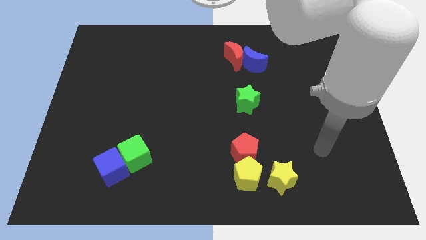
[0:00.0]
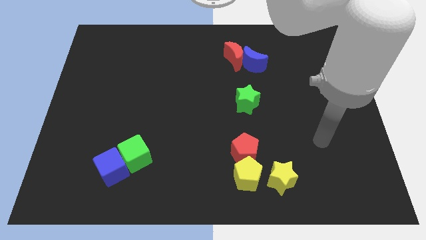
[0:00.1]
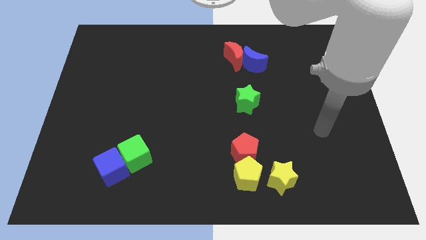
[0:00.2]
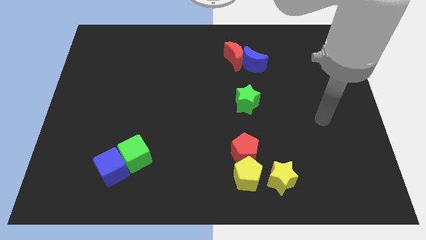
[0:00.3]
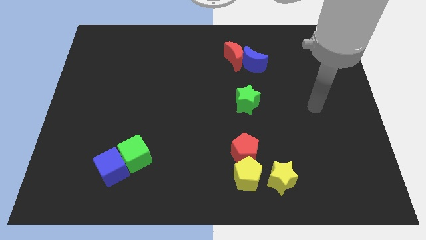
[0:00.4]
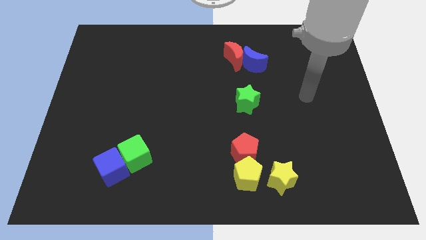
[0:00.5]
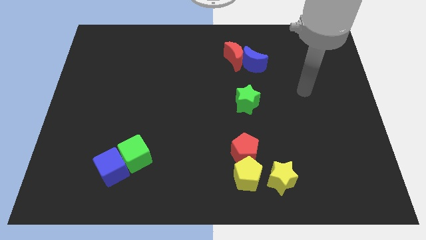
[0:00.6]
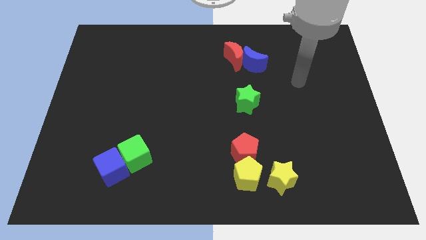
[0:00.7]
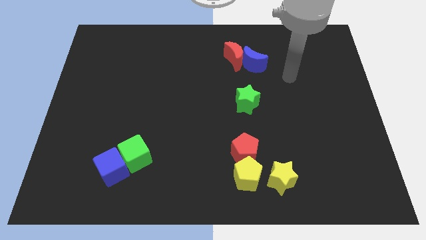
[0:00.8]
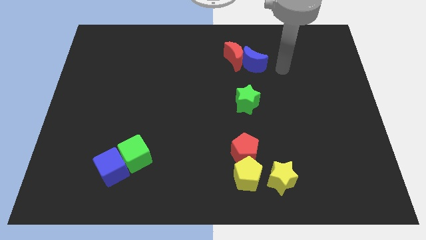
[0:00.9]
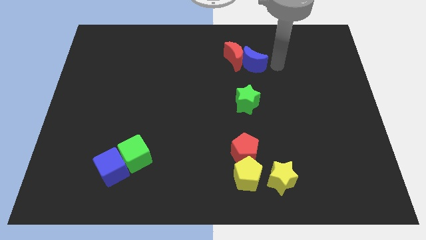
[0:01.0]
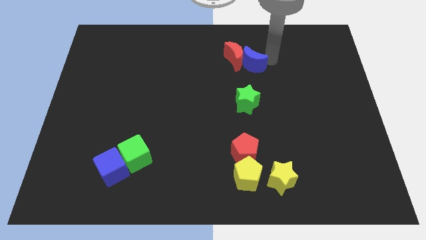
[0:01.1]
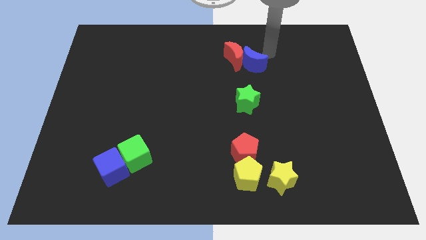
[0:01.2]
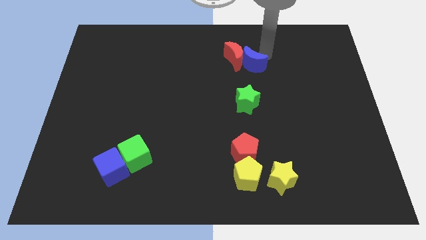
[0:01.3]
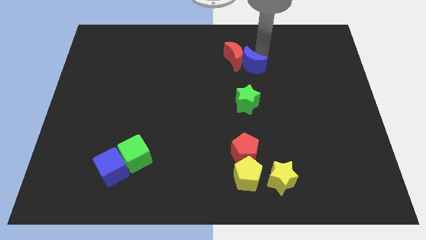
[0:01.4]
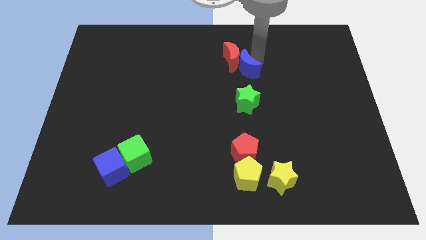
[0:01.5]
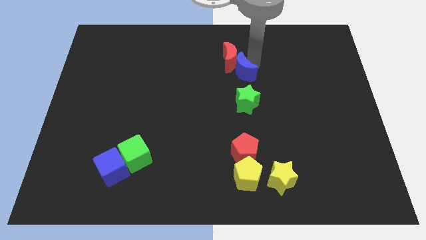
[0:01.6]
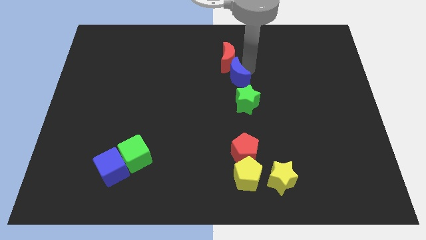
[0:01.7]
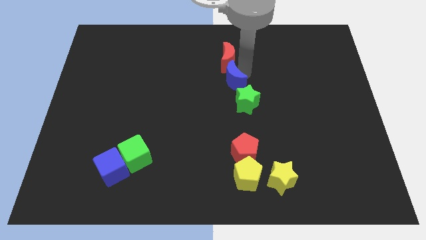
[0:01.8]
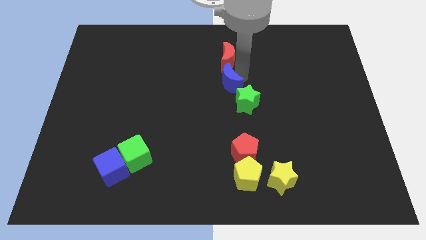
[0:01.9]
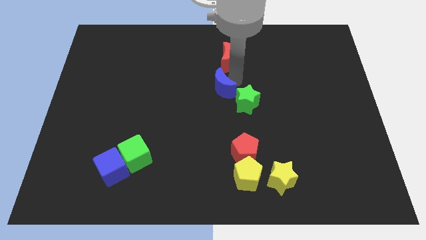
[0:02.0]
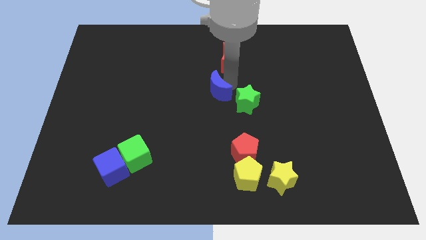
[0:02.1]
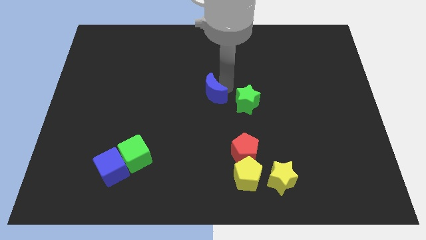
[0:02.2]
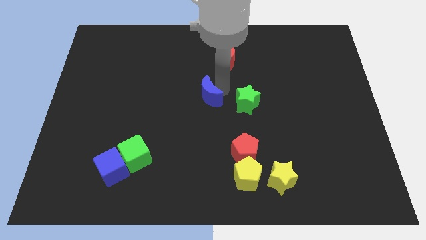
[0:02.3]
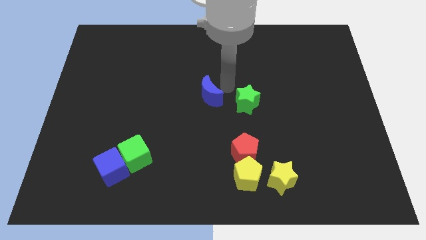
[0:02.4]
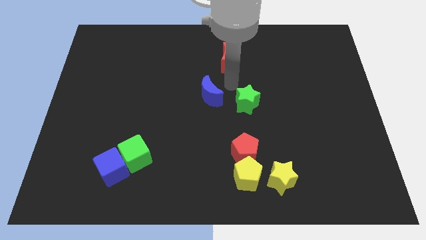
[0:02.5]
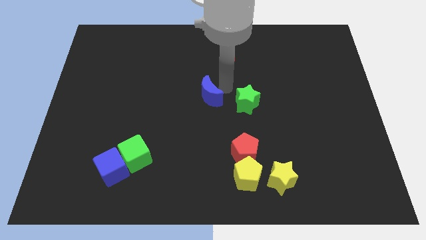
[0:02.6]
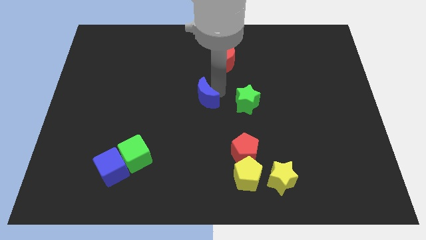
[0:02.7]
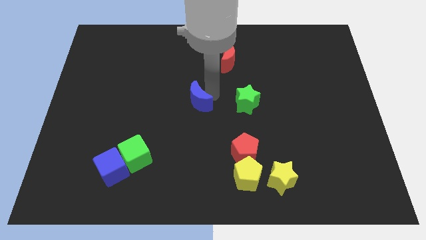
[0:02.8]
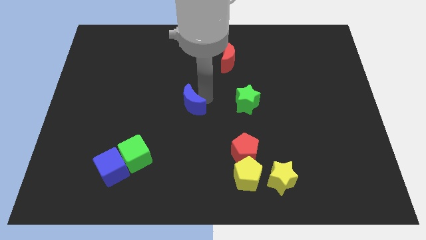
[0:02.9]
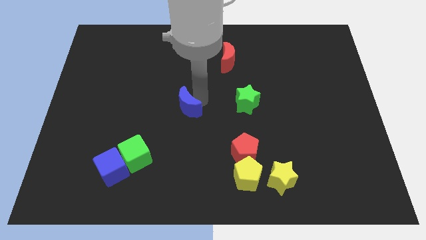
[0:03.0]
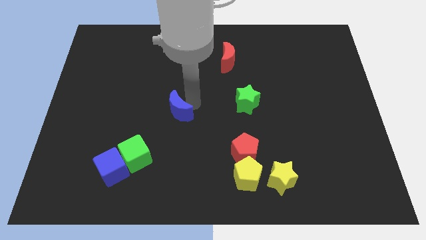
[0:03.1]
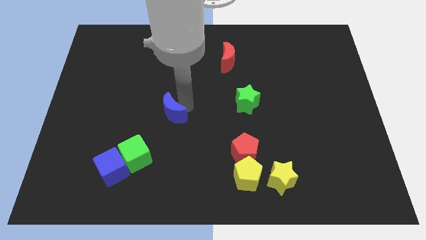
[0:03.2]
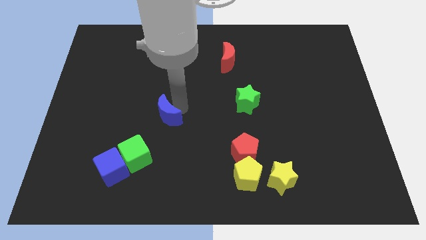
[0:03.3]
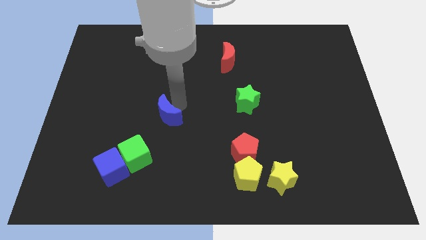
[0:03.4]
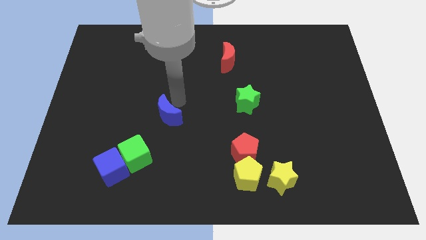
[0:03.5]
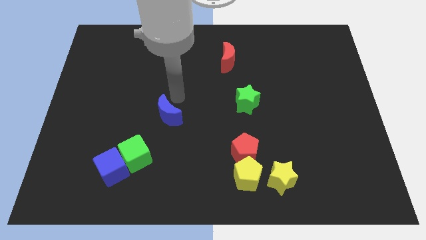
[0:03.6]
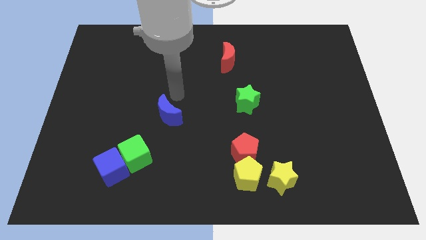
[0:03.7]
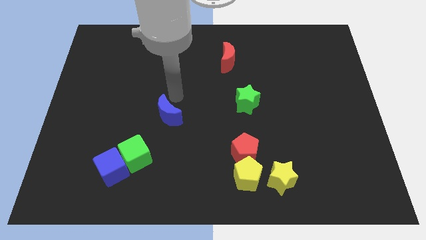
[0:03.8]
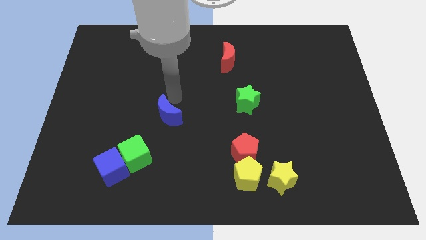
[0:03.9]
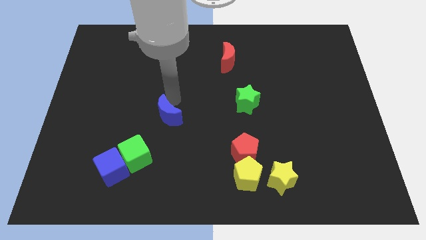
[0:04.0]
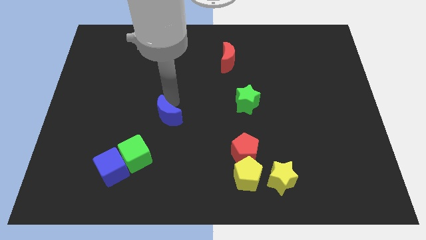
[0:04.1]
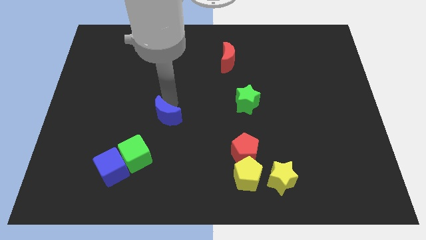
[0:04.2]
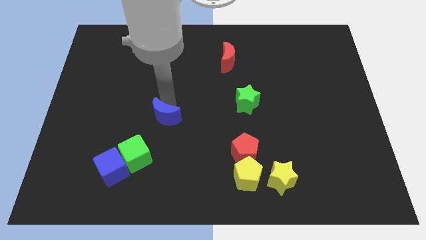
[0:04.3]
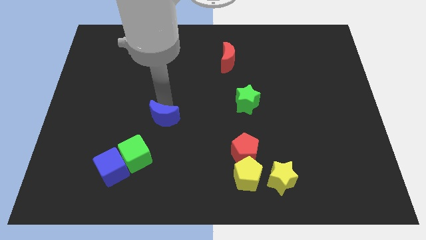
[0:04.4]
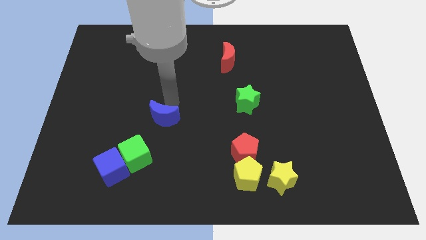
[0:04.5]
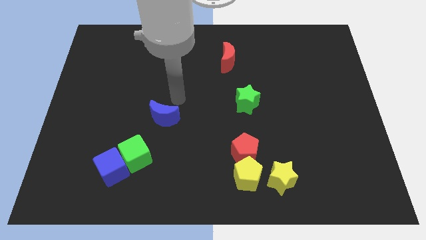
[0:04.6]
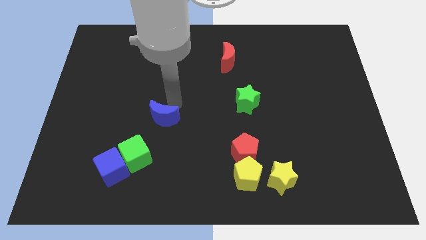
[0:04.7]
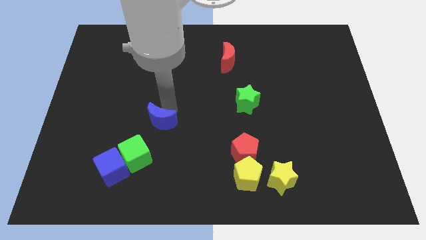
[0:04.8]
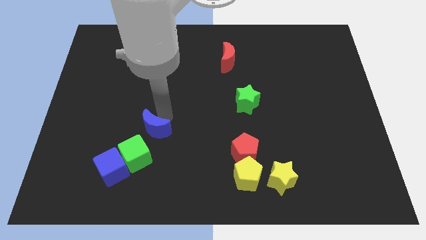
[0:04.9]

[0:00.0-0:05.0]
push the blue moon to the top right side of the blue cube

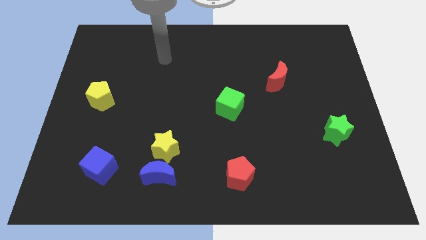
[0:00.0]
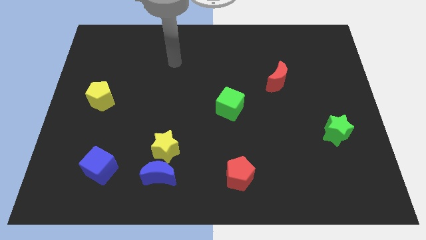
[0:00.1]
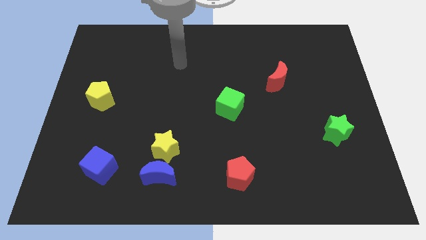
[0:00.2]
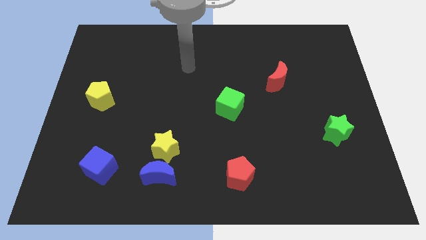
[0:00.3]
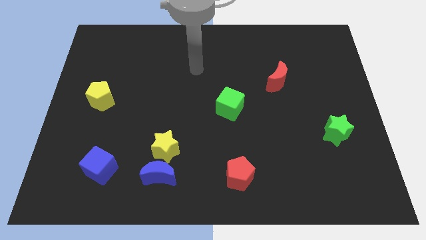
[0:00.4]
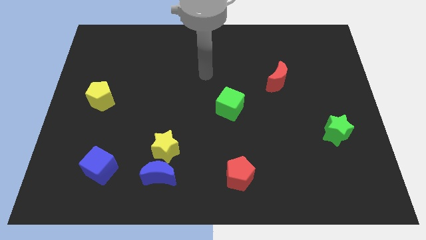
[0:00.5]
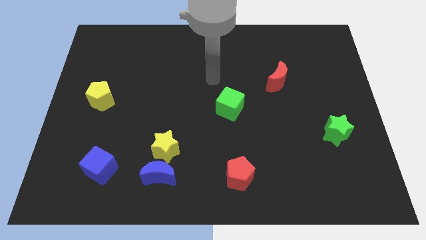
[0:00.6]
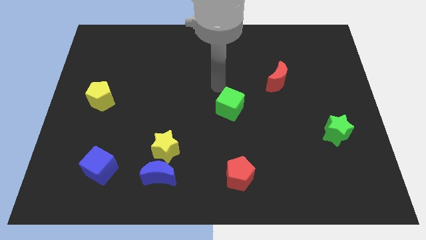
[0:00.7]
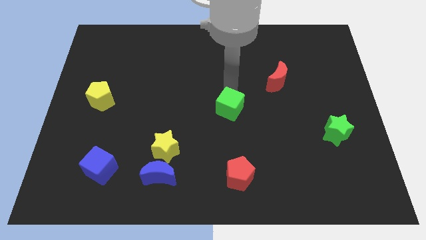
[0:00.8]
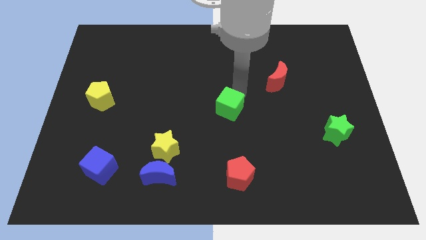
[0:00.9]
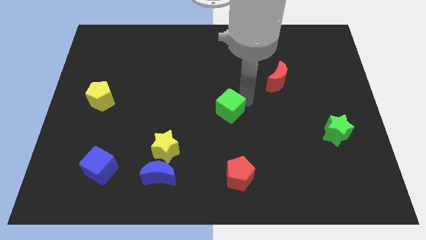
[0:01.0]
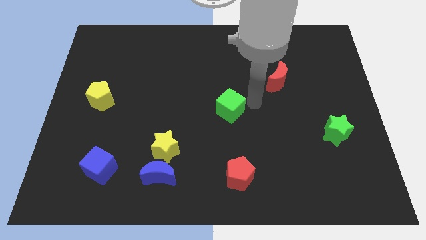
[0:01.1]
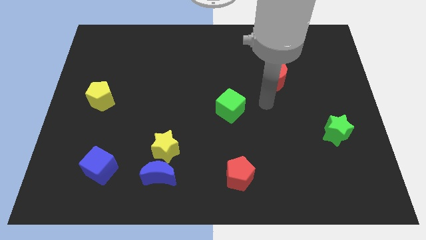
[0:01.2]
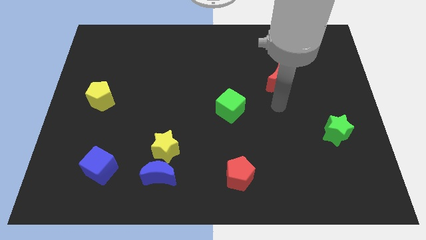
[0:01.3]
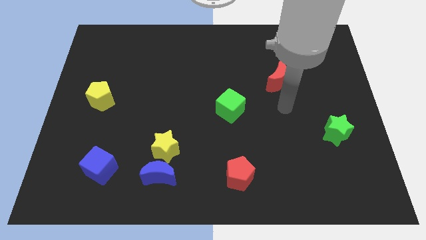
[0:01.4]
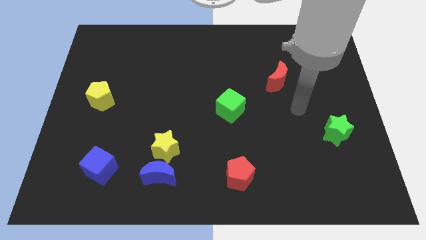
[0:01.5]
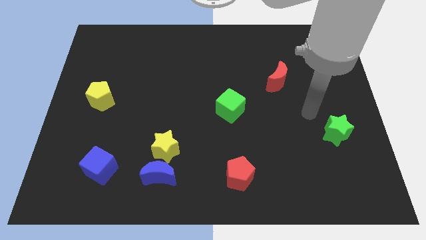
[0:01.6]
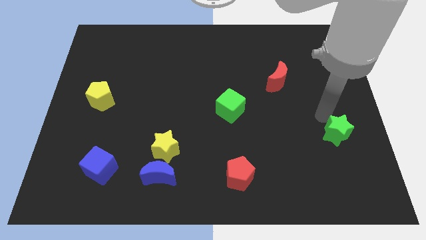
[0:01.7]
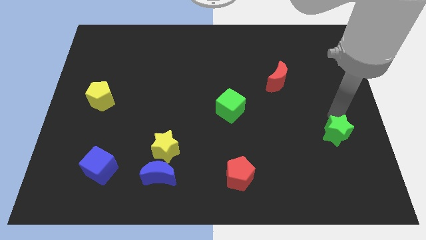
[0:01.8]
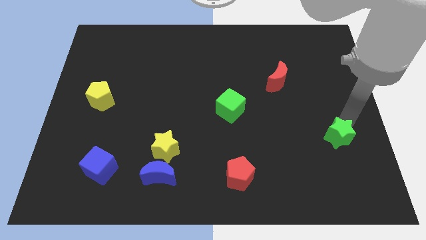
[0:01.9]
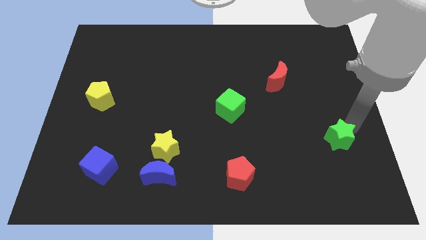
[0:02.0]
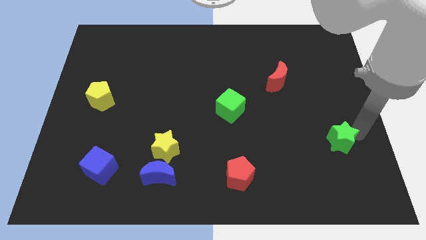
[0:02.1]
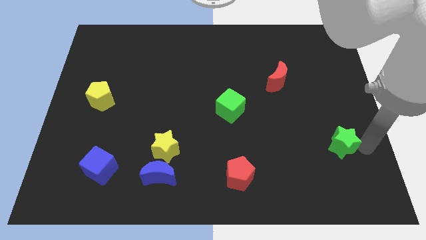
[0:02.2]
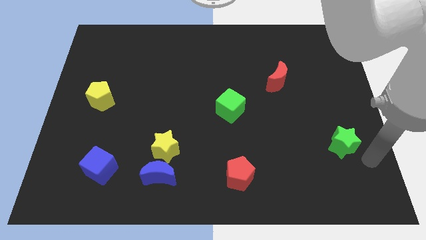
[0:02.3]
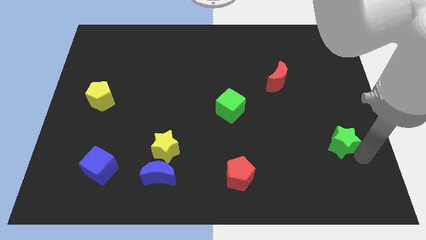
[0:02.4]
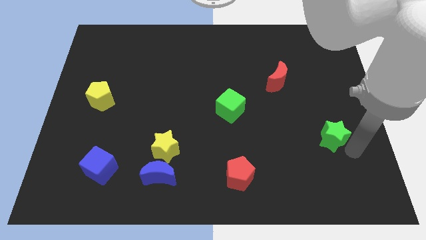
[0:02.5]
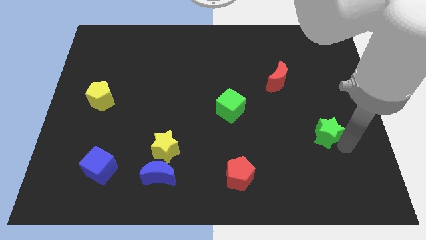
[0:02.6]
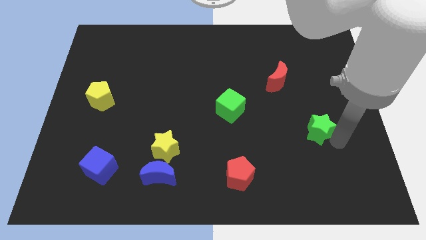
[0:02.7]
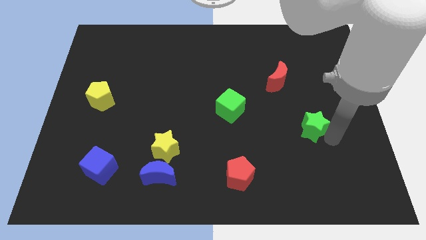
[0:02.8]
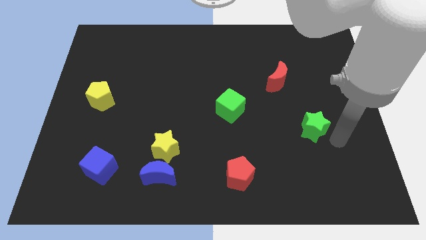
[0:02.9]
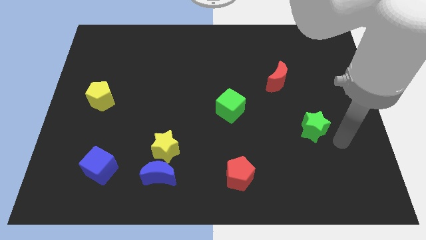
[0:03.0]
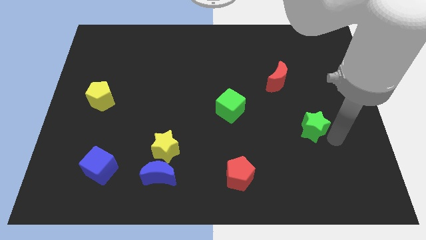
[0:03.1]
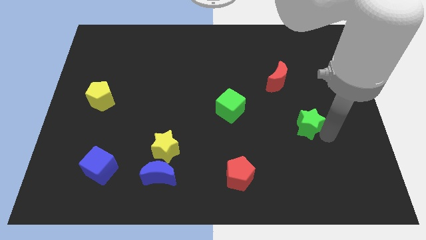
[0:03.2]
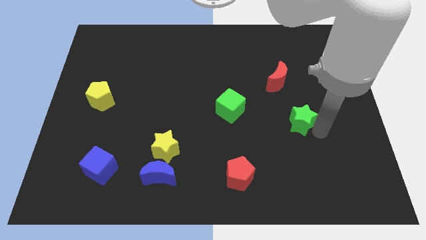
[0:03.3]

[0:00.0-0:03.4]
move the green star to the bottom of the red moon

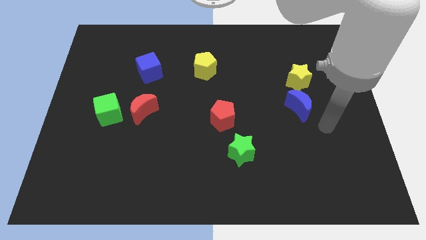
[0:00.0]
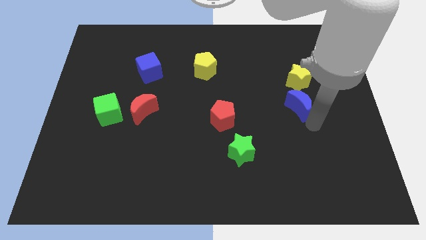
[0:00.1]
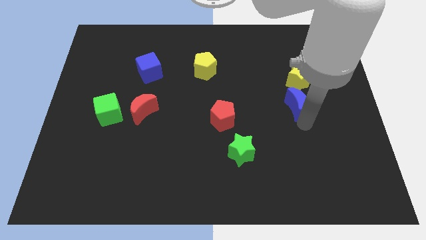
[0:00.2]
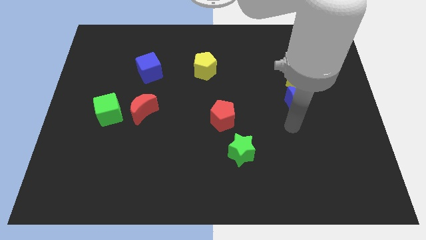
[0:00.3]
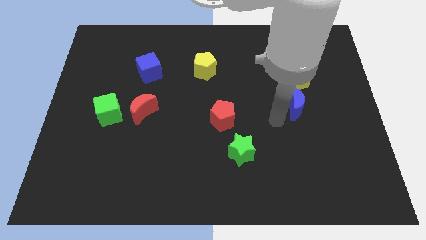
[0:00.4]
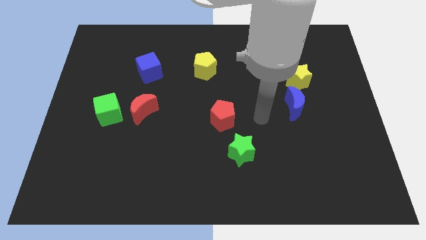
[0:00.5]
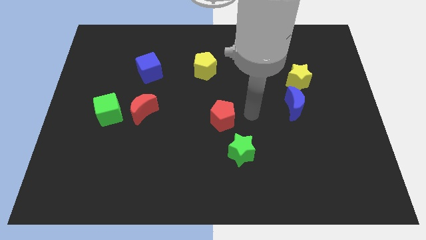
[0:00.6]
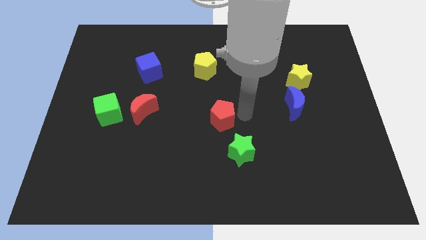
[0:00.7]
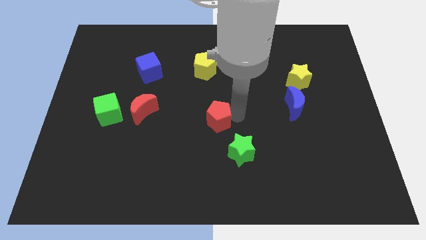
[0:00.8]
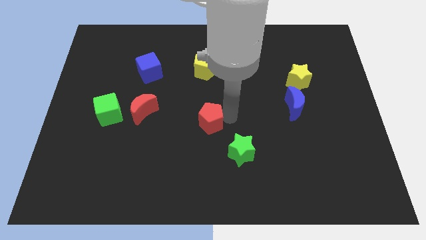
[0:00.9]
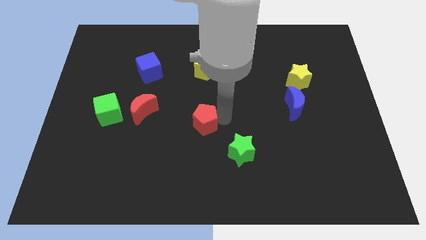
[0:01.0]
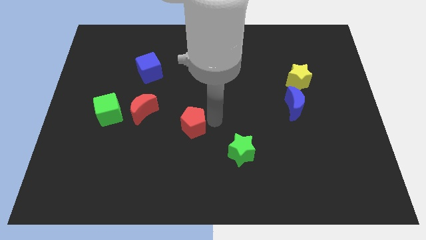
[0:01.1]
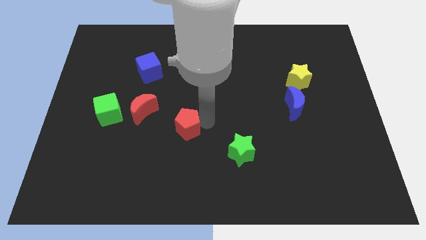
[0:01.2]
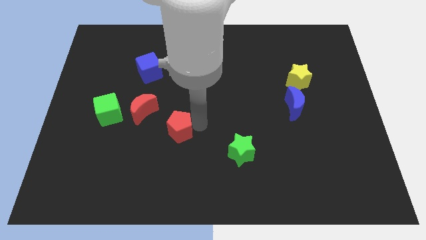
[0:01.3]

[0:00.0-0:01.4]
move the red pentagon to the bottom right of the red moon
